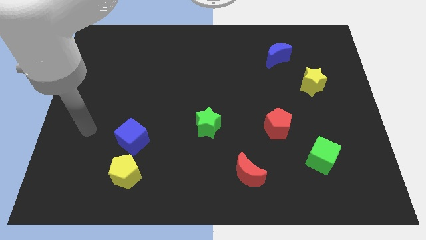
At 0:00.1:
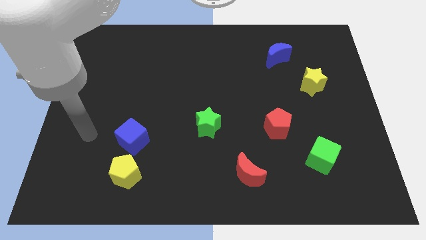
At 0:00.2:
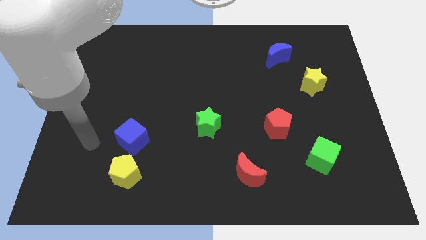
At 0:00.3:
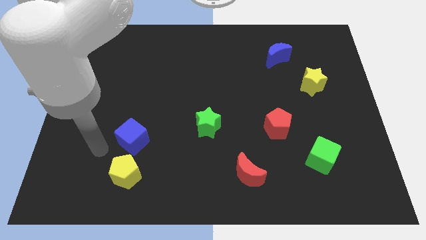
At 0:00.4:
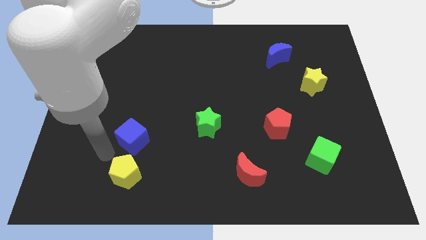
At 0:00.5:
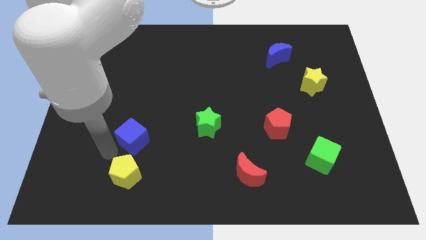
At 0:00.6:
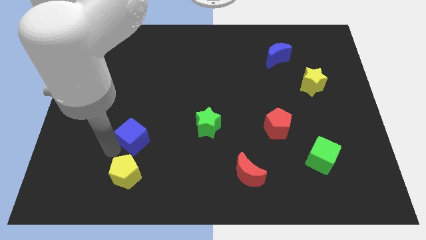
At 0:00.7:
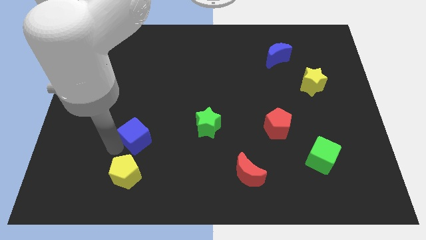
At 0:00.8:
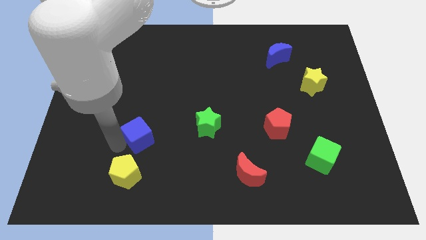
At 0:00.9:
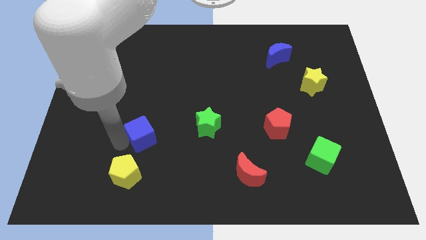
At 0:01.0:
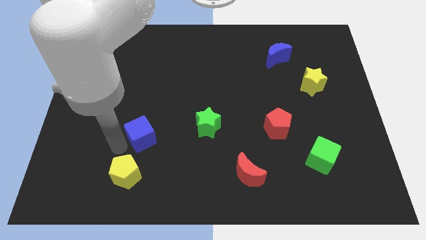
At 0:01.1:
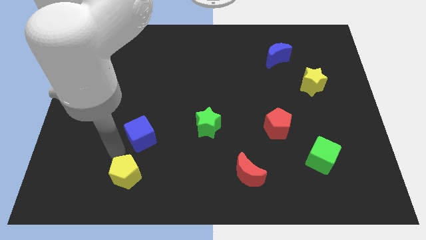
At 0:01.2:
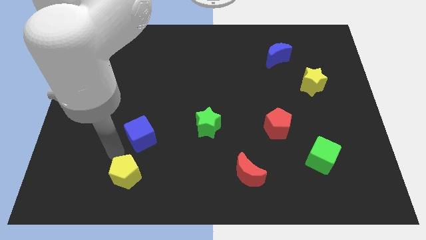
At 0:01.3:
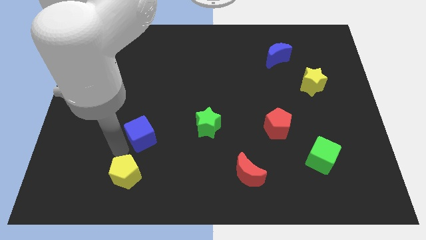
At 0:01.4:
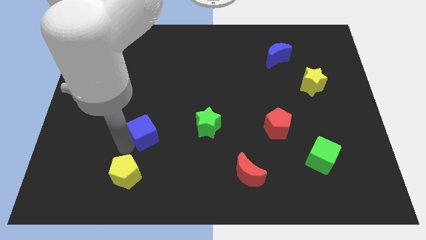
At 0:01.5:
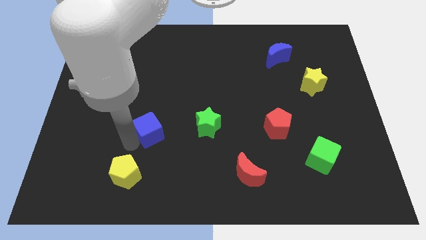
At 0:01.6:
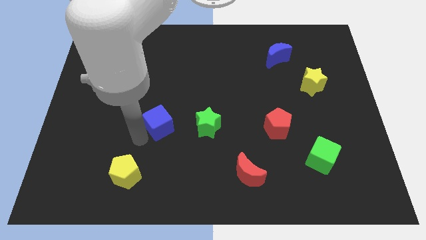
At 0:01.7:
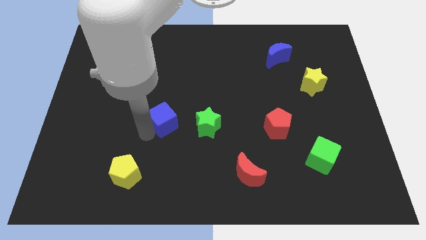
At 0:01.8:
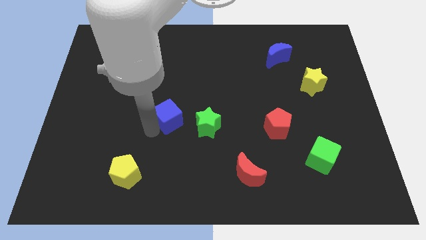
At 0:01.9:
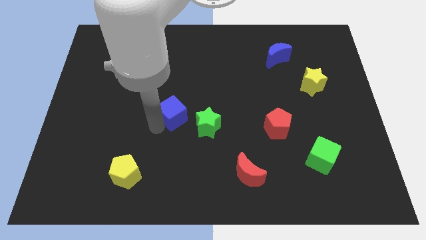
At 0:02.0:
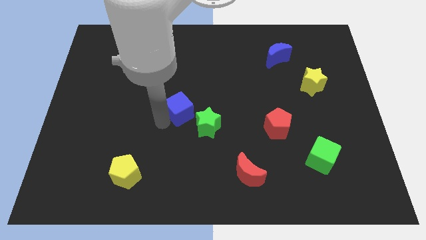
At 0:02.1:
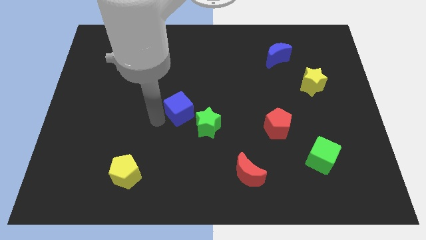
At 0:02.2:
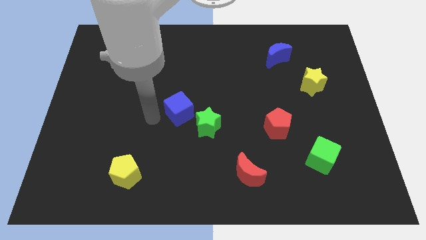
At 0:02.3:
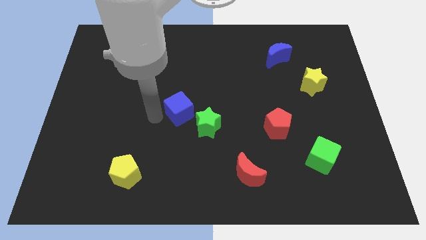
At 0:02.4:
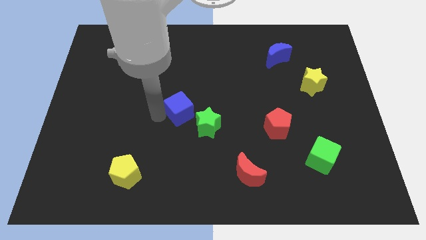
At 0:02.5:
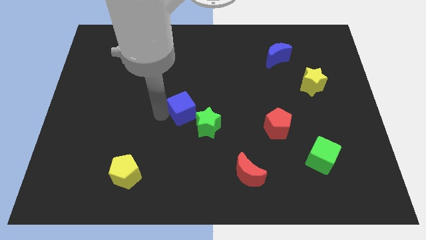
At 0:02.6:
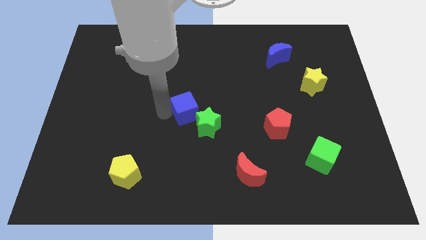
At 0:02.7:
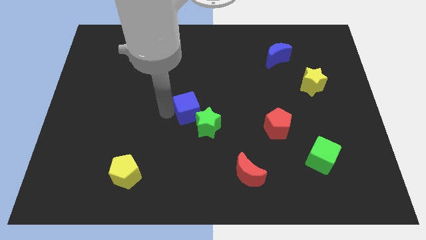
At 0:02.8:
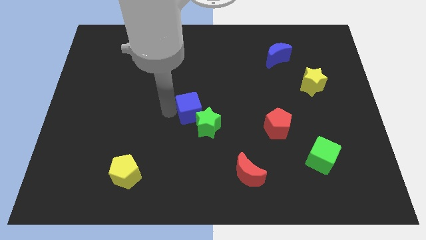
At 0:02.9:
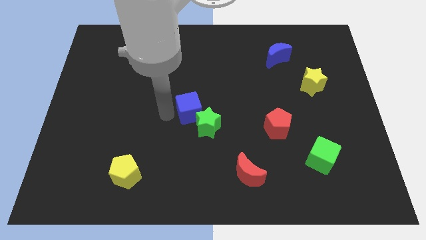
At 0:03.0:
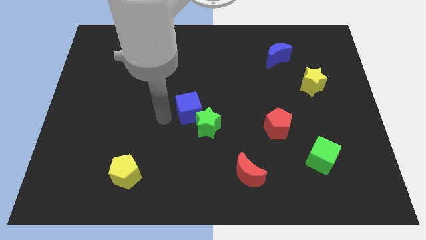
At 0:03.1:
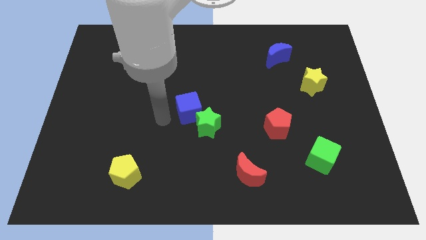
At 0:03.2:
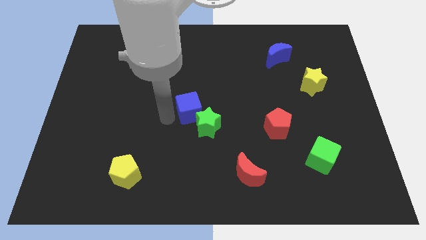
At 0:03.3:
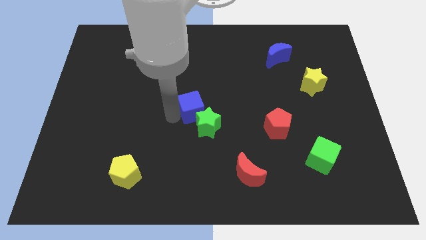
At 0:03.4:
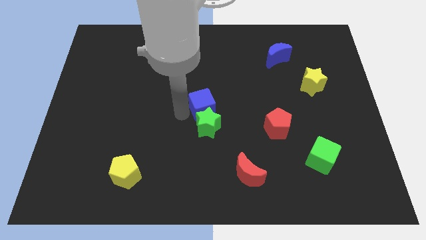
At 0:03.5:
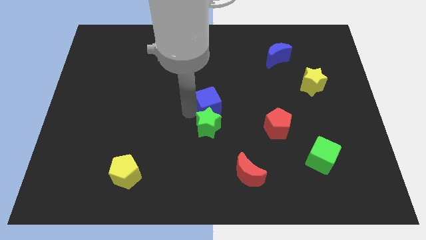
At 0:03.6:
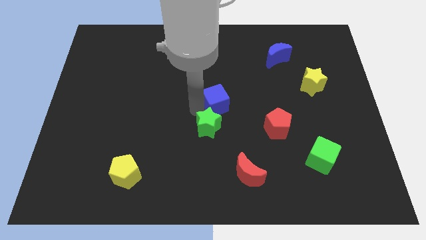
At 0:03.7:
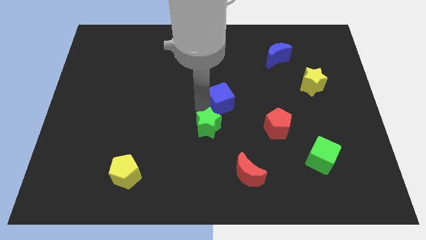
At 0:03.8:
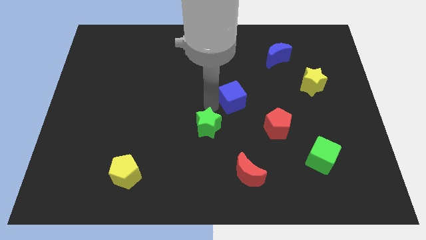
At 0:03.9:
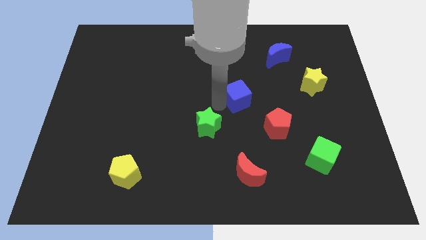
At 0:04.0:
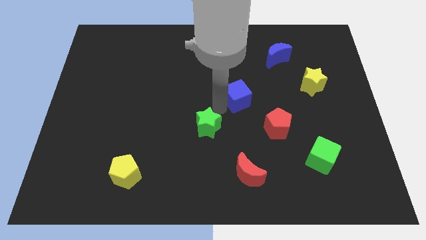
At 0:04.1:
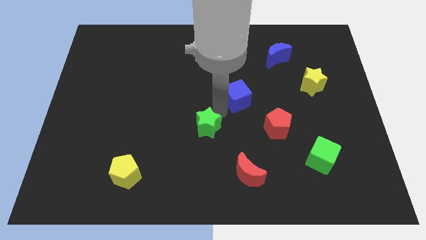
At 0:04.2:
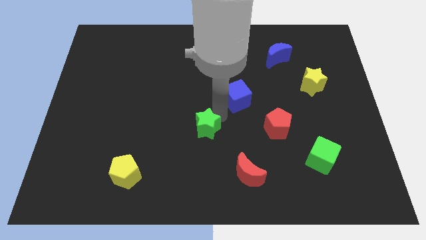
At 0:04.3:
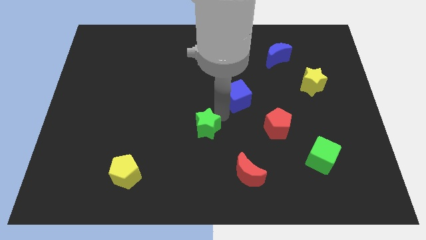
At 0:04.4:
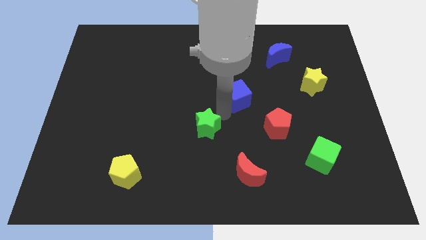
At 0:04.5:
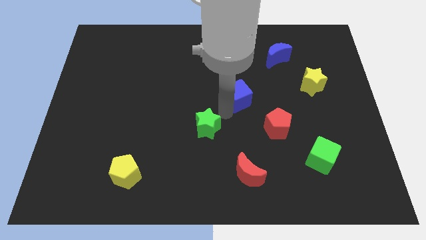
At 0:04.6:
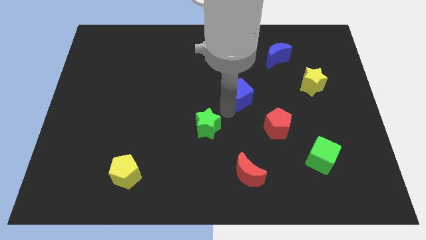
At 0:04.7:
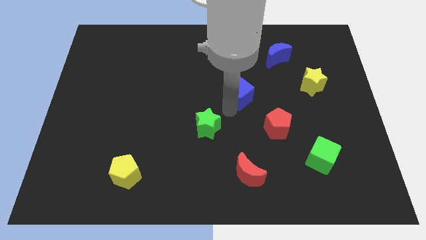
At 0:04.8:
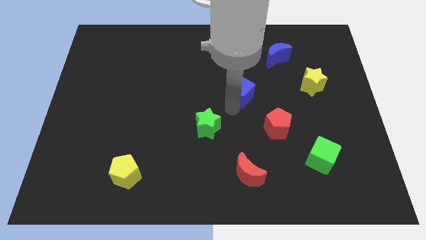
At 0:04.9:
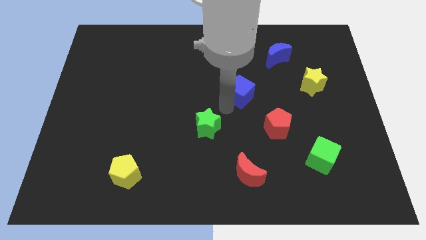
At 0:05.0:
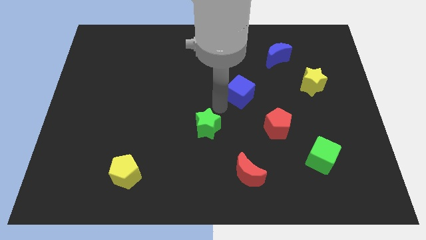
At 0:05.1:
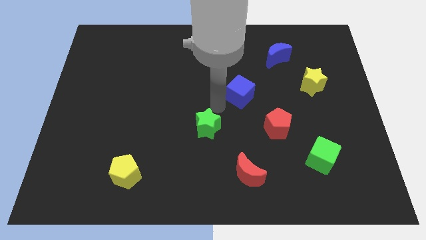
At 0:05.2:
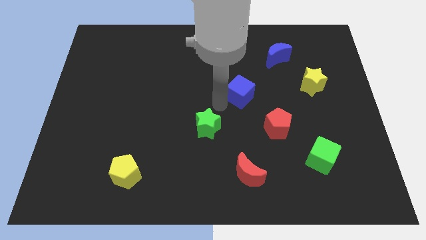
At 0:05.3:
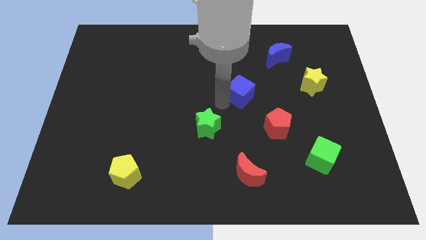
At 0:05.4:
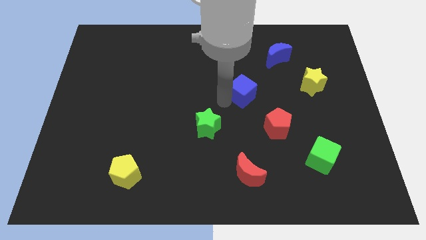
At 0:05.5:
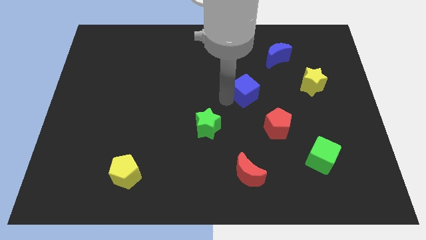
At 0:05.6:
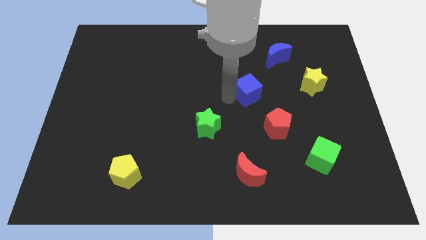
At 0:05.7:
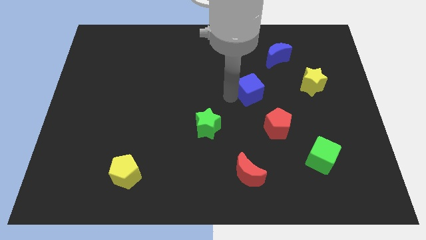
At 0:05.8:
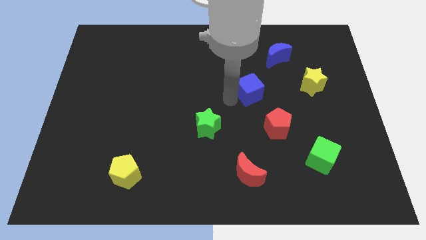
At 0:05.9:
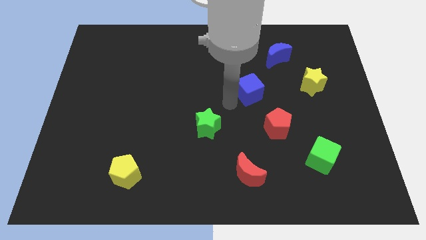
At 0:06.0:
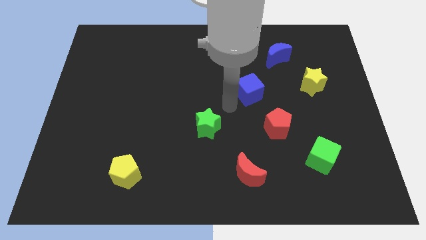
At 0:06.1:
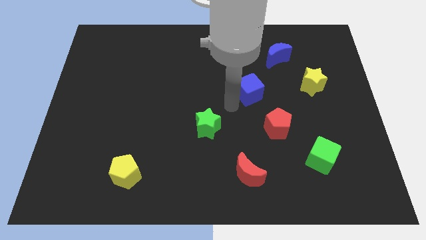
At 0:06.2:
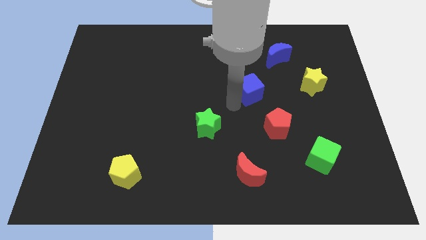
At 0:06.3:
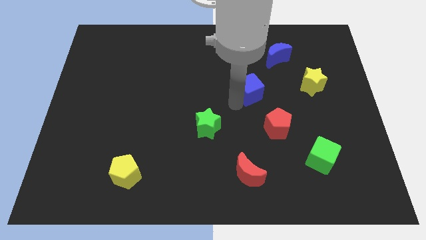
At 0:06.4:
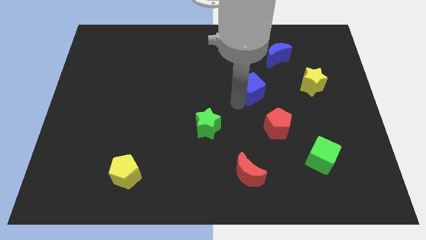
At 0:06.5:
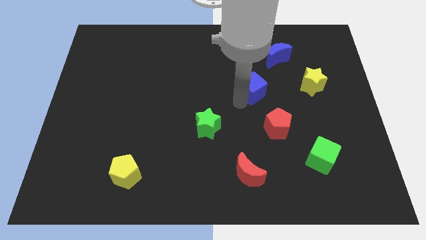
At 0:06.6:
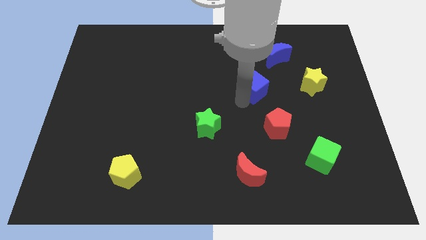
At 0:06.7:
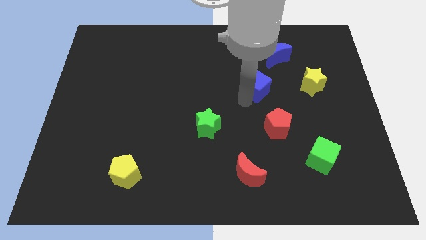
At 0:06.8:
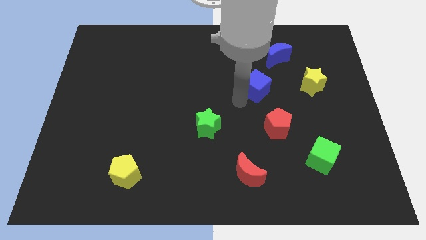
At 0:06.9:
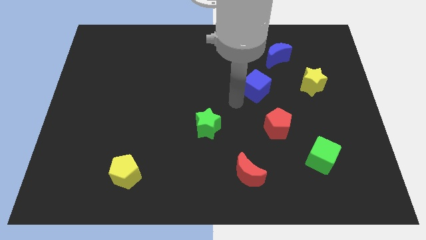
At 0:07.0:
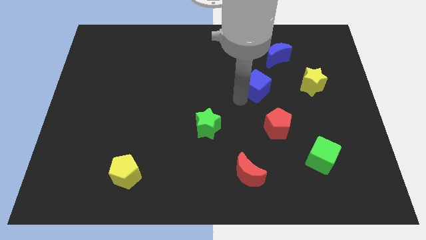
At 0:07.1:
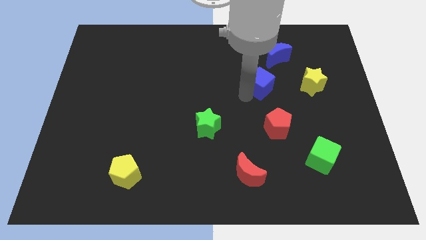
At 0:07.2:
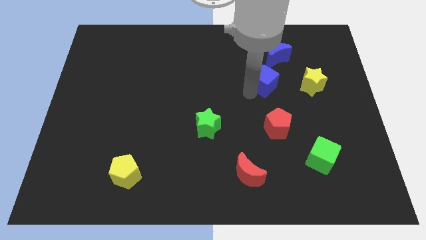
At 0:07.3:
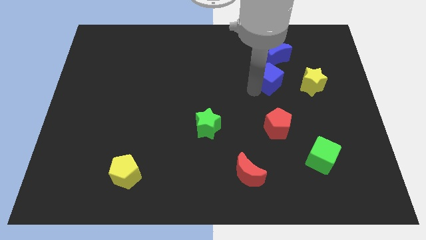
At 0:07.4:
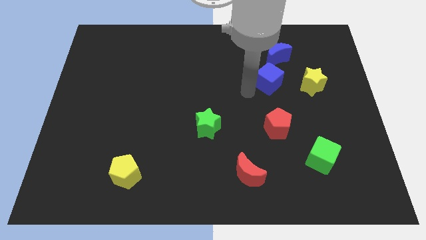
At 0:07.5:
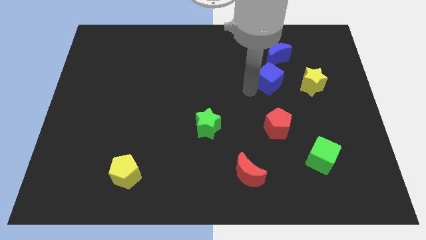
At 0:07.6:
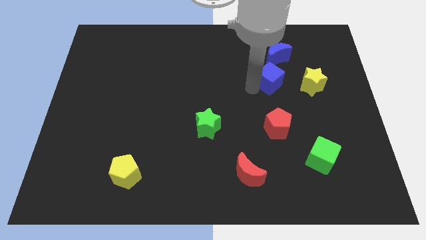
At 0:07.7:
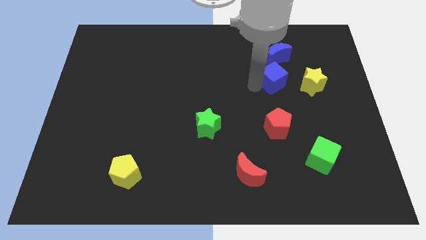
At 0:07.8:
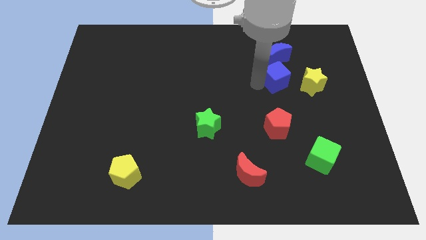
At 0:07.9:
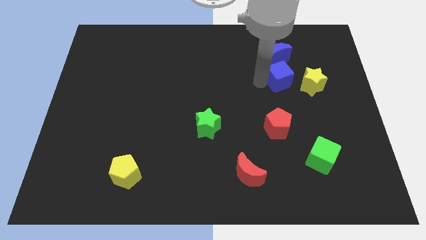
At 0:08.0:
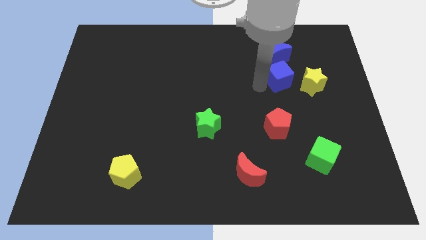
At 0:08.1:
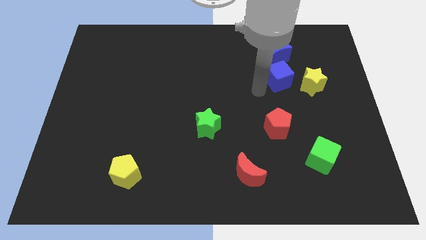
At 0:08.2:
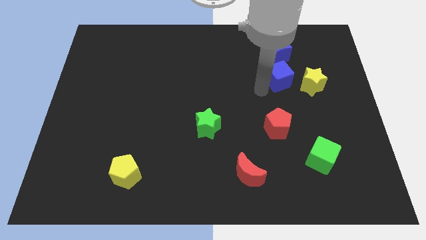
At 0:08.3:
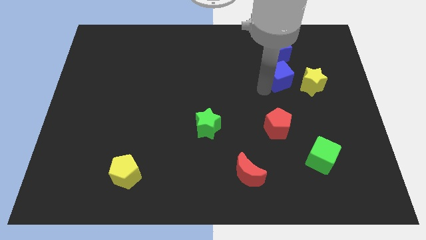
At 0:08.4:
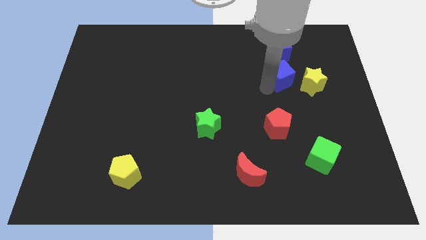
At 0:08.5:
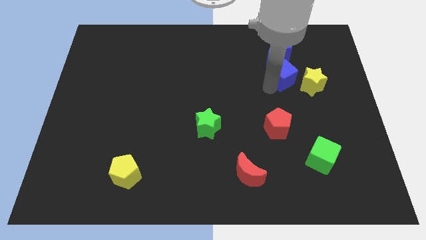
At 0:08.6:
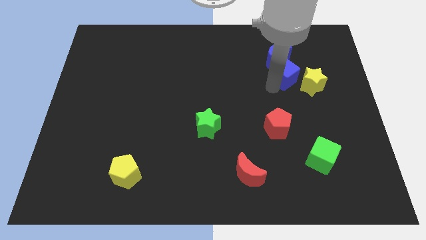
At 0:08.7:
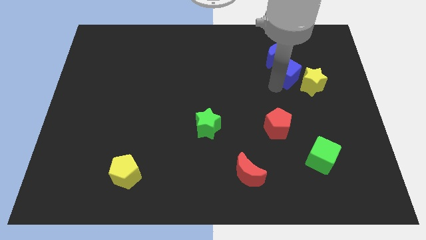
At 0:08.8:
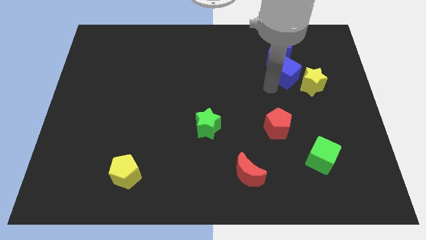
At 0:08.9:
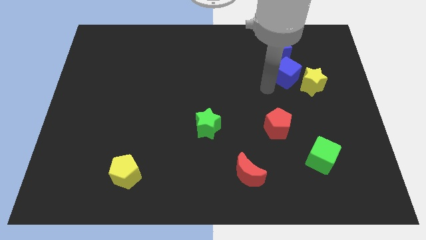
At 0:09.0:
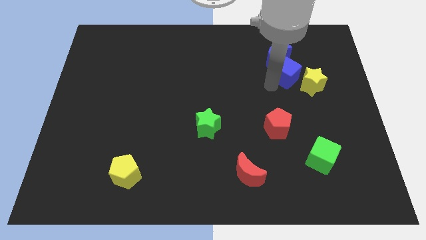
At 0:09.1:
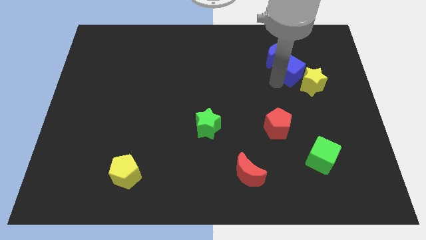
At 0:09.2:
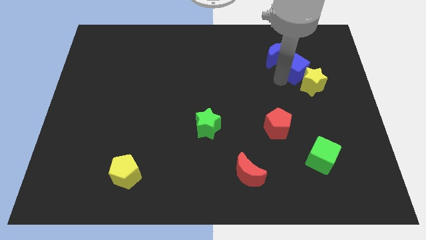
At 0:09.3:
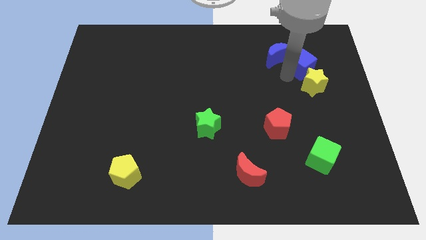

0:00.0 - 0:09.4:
put the blue cube just right of the blue moon
